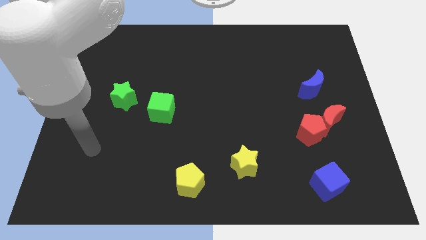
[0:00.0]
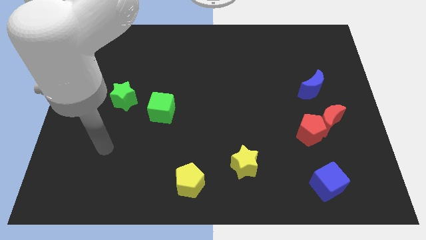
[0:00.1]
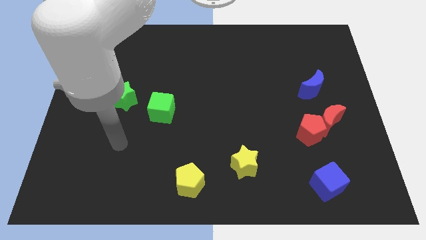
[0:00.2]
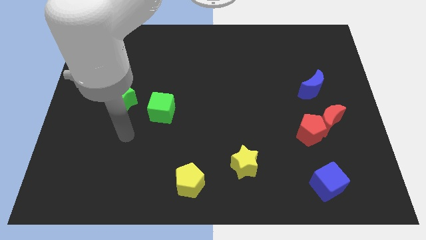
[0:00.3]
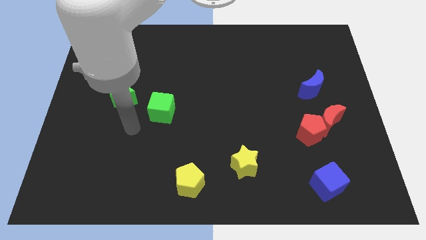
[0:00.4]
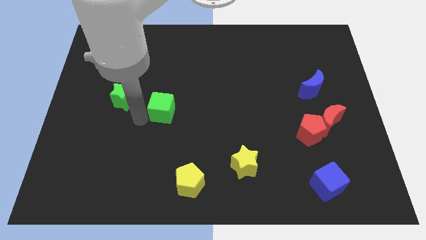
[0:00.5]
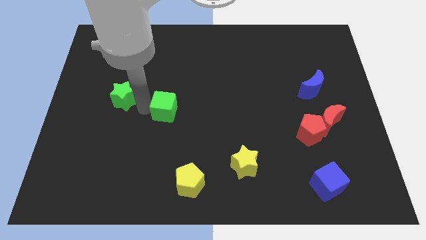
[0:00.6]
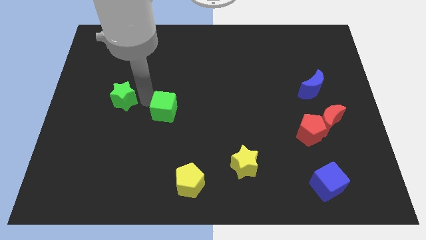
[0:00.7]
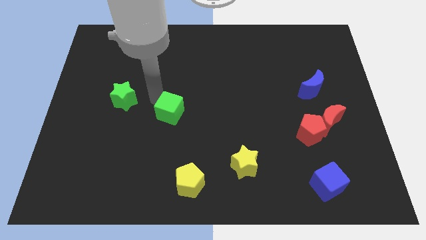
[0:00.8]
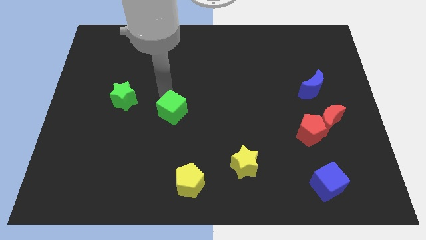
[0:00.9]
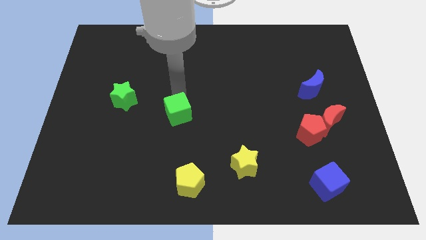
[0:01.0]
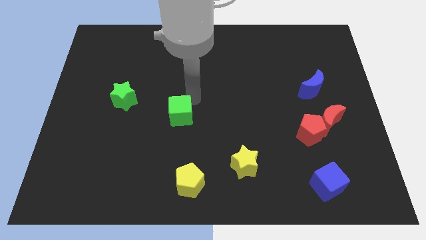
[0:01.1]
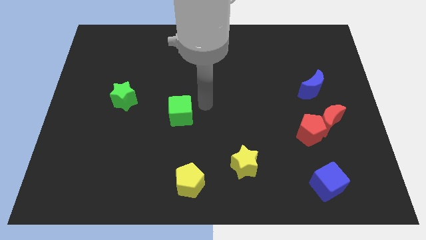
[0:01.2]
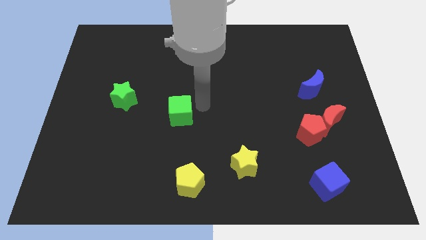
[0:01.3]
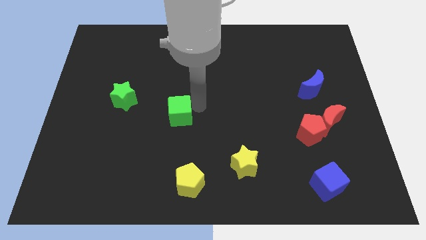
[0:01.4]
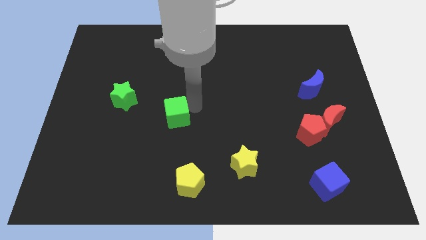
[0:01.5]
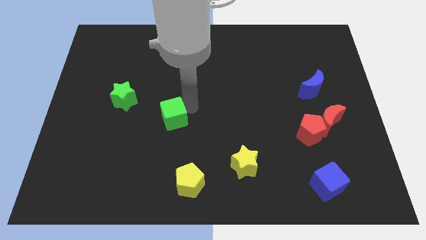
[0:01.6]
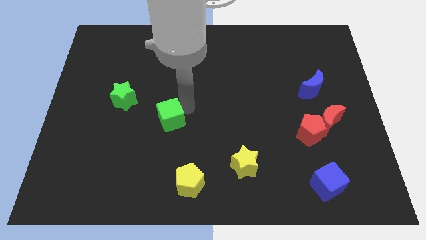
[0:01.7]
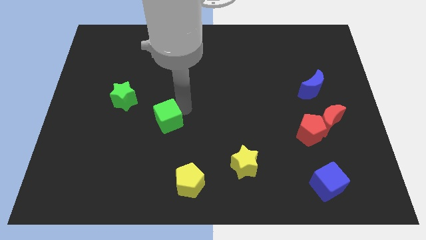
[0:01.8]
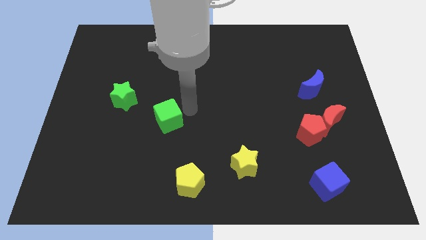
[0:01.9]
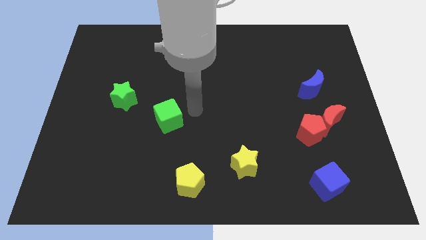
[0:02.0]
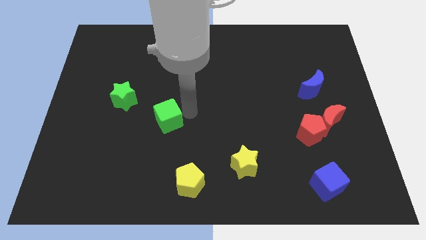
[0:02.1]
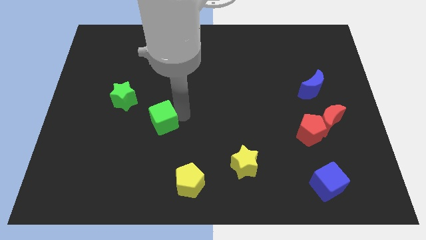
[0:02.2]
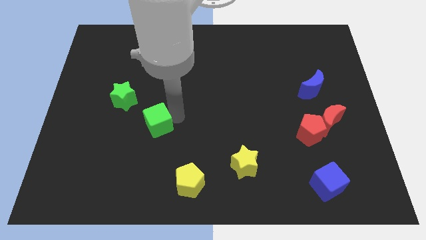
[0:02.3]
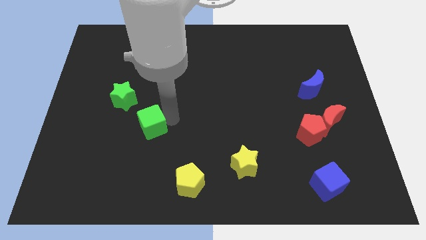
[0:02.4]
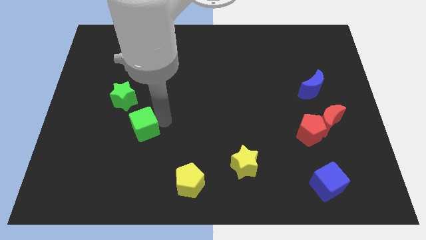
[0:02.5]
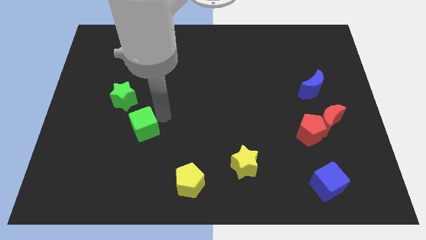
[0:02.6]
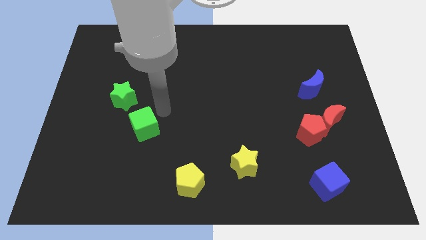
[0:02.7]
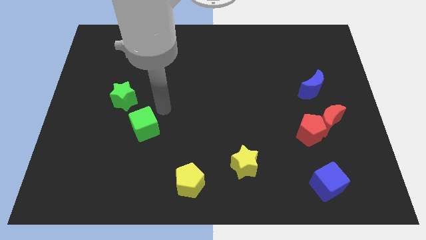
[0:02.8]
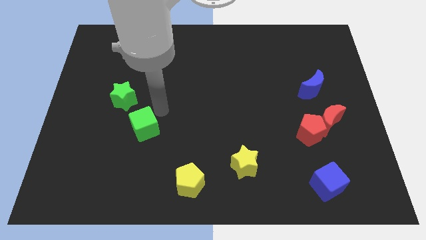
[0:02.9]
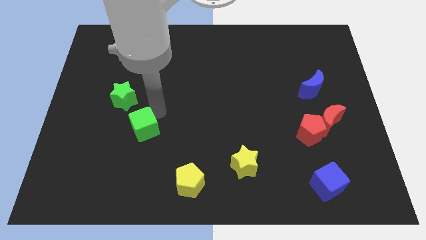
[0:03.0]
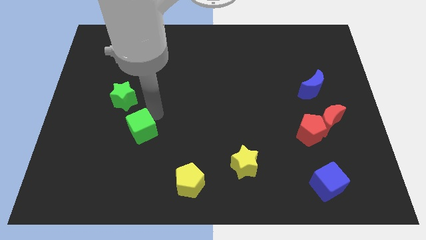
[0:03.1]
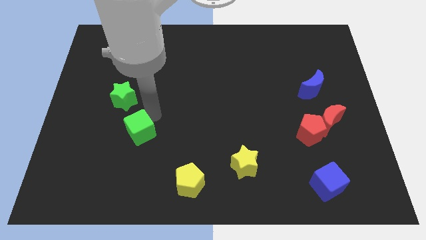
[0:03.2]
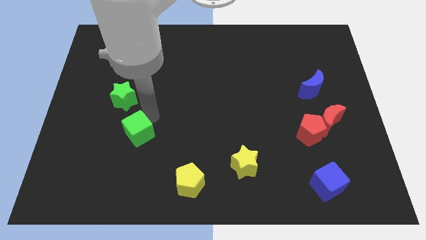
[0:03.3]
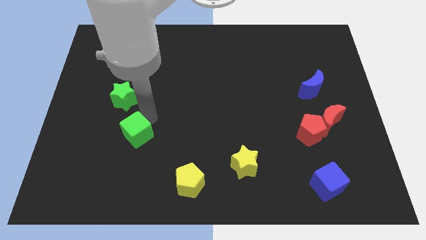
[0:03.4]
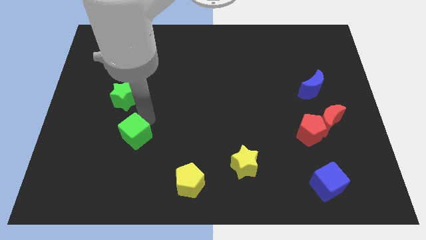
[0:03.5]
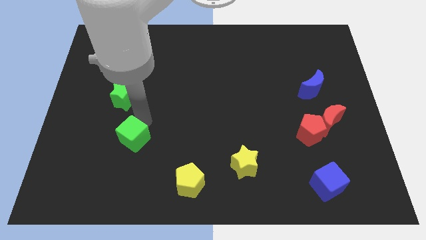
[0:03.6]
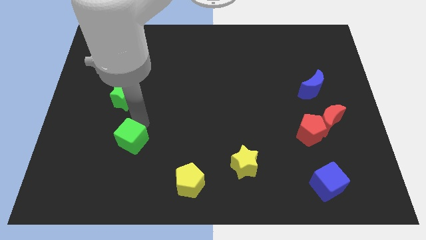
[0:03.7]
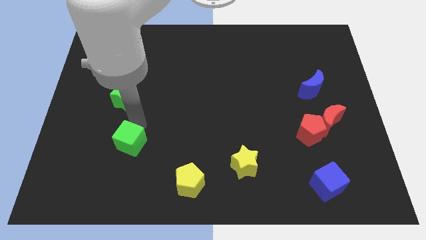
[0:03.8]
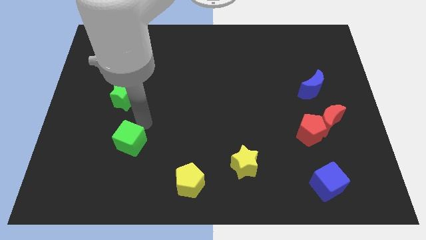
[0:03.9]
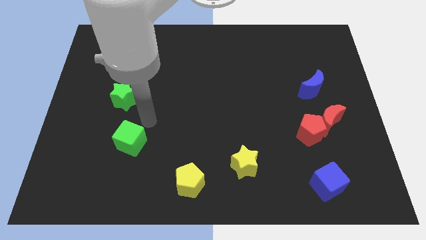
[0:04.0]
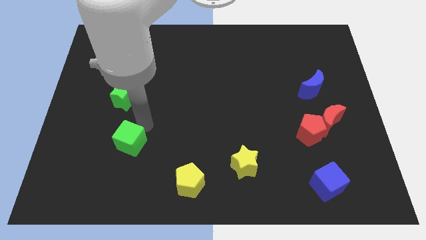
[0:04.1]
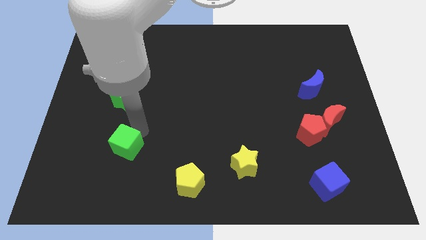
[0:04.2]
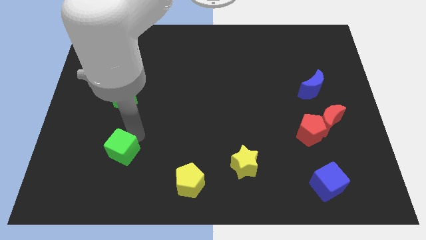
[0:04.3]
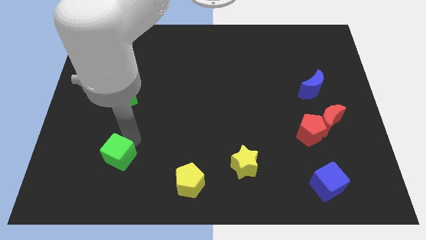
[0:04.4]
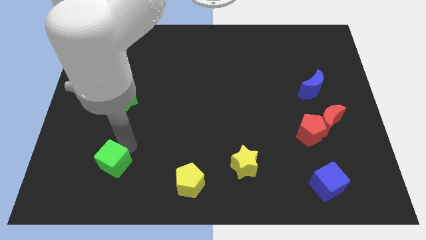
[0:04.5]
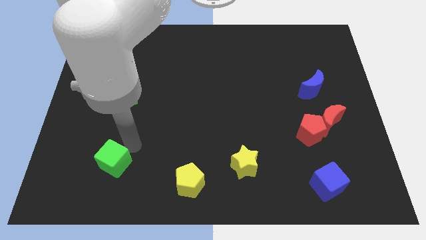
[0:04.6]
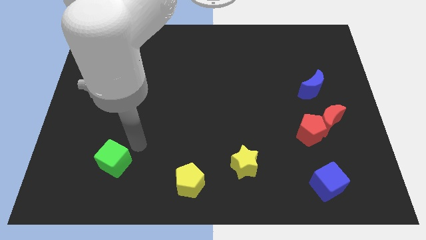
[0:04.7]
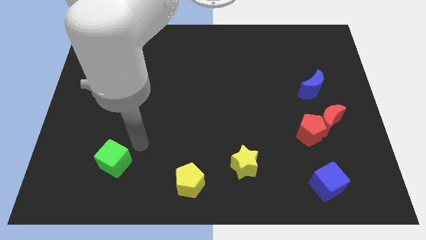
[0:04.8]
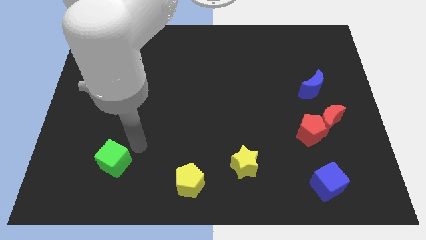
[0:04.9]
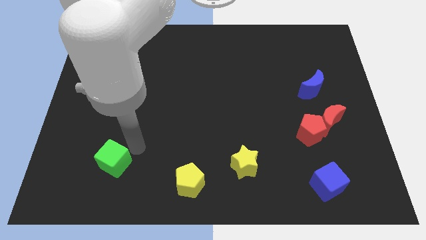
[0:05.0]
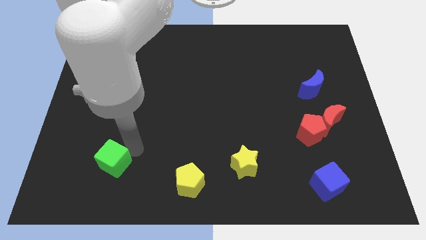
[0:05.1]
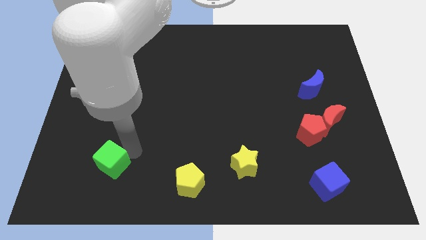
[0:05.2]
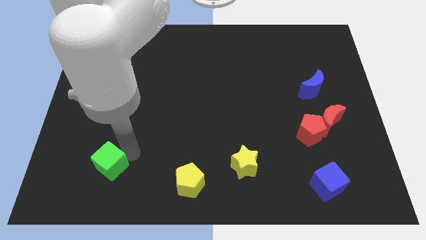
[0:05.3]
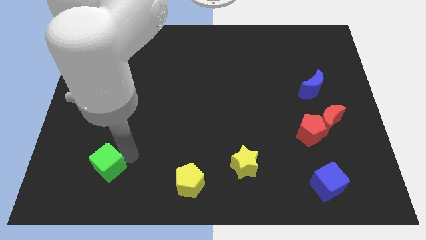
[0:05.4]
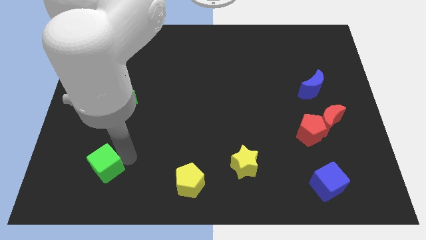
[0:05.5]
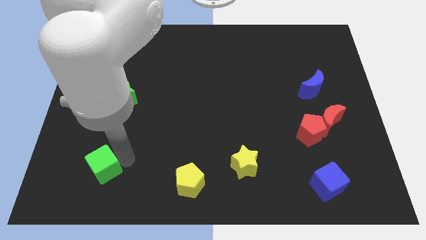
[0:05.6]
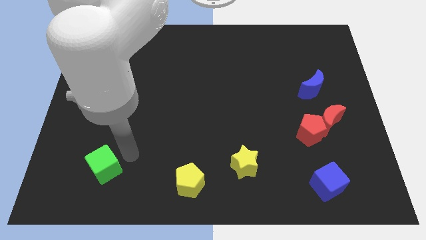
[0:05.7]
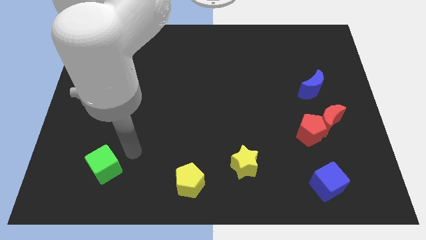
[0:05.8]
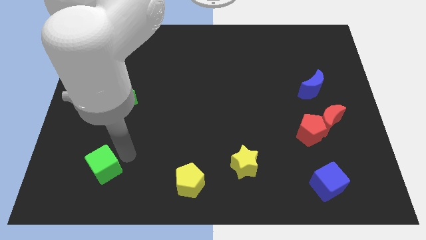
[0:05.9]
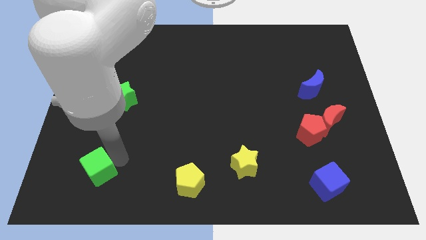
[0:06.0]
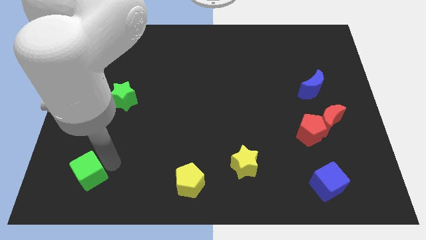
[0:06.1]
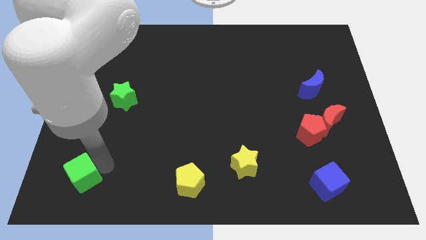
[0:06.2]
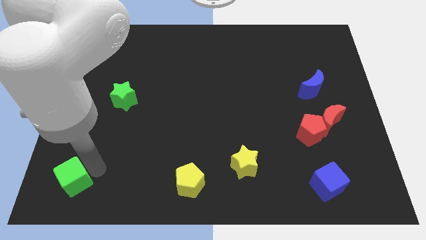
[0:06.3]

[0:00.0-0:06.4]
slide the green cube to the lower left corner

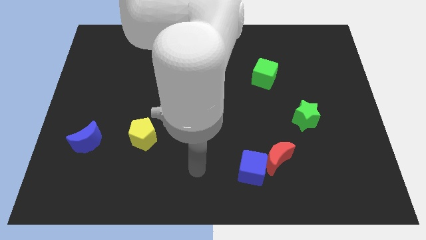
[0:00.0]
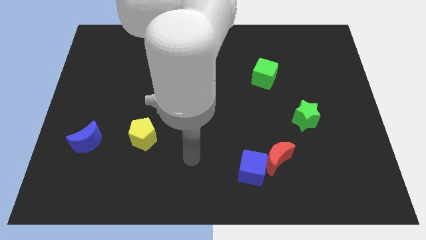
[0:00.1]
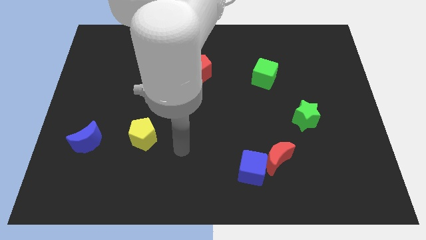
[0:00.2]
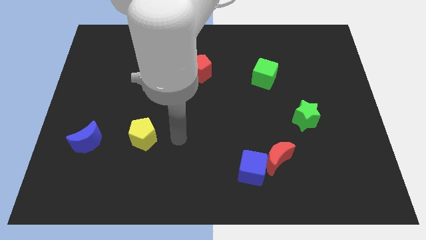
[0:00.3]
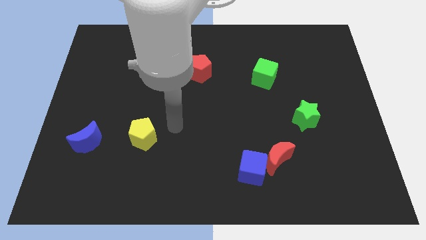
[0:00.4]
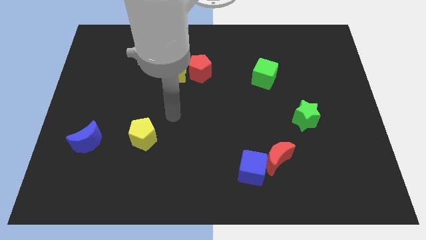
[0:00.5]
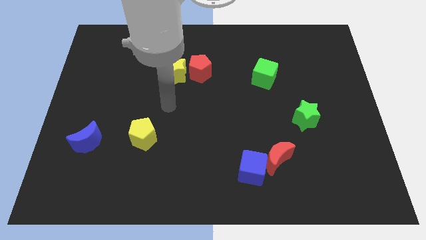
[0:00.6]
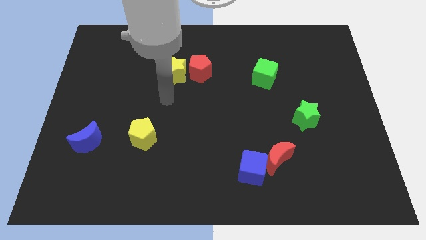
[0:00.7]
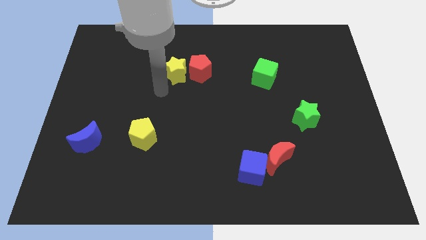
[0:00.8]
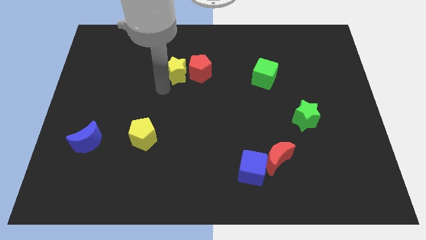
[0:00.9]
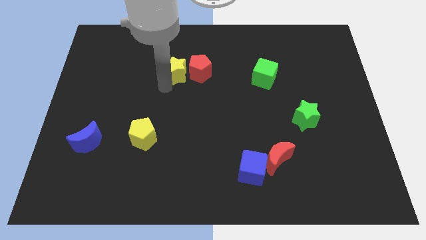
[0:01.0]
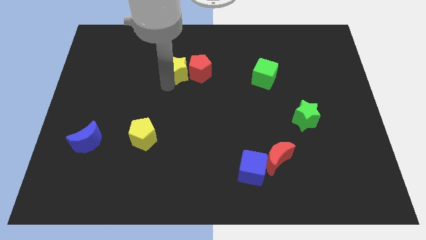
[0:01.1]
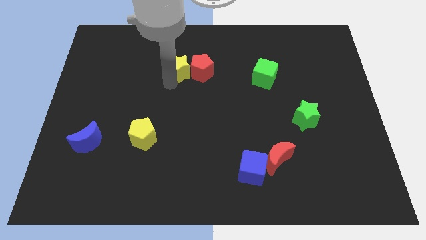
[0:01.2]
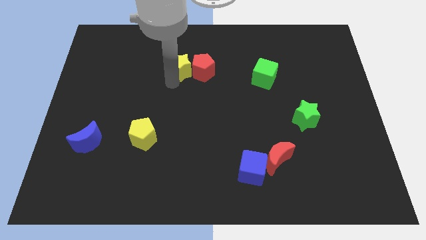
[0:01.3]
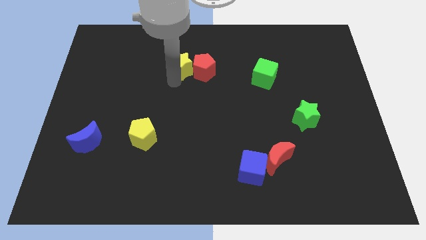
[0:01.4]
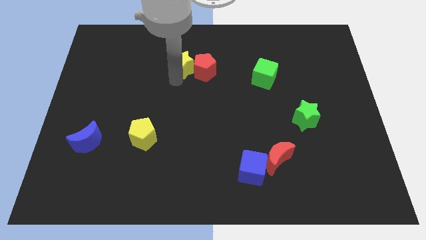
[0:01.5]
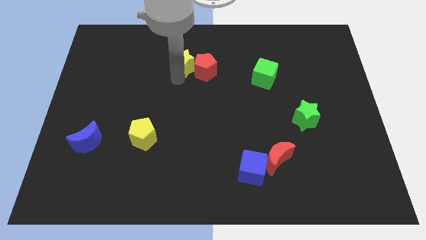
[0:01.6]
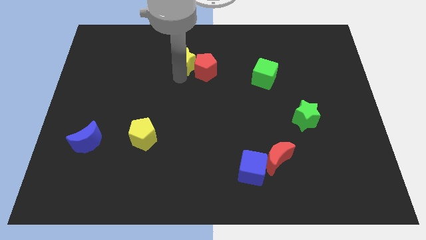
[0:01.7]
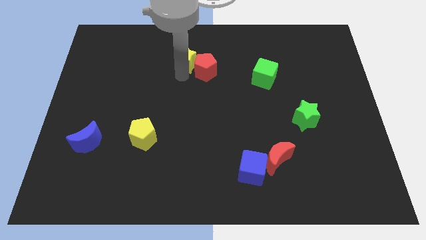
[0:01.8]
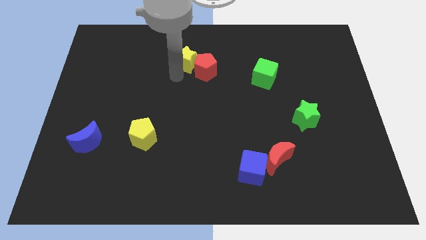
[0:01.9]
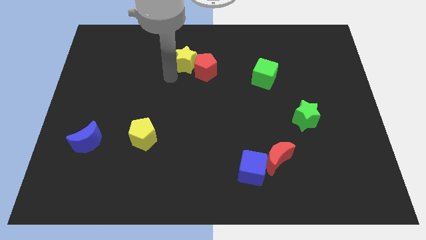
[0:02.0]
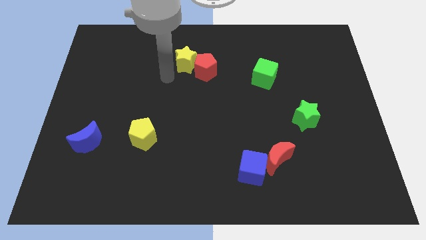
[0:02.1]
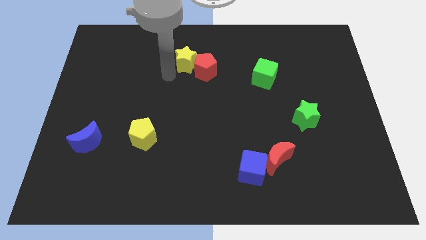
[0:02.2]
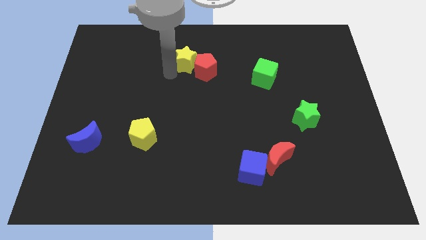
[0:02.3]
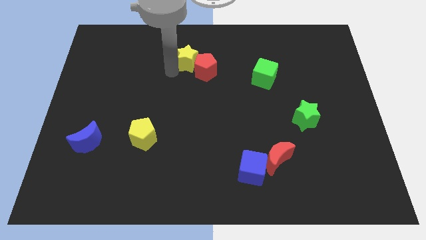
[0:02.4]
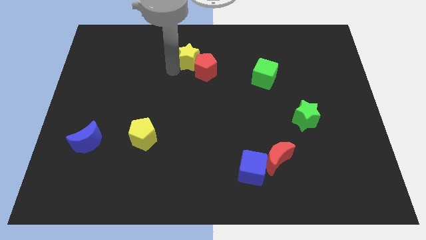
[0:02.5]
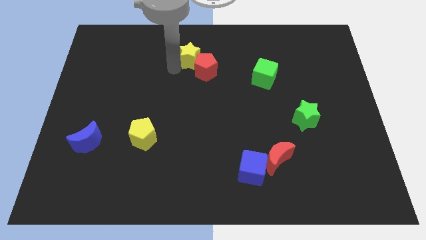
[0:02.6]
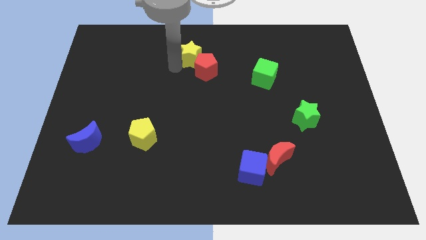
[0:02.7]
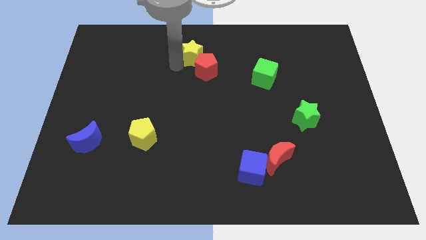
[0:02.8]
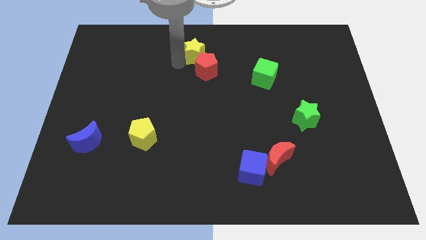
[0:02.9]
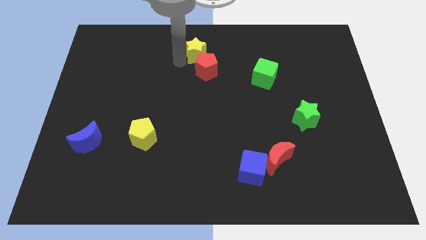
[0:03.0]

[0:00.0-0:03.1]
move the yellow star to the towards your base
